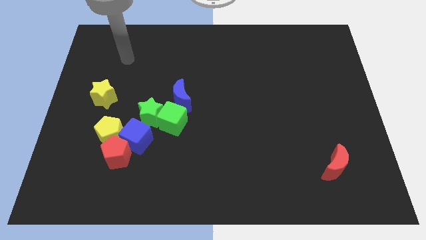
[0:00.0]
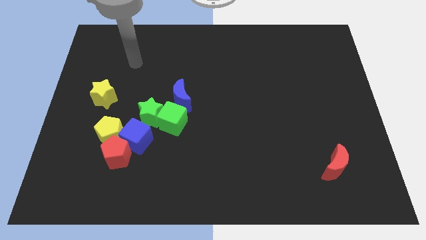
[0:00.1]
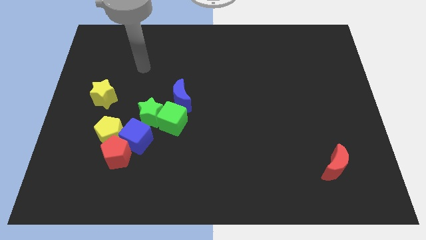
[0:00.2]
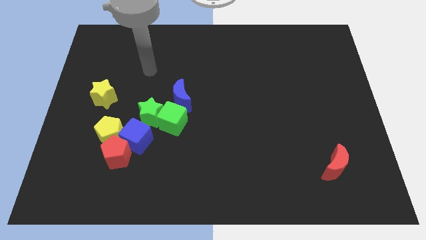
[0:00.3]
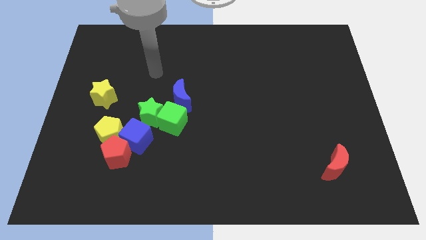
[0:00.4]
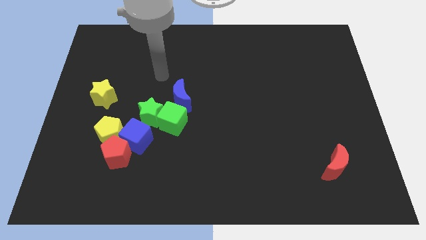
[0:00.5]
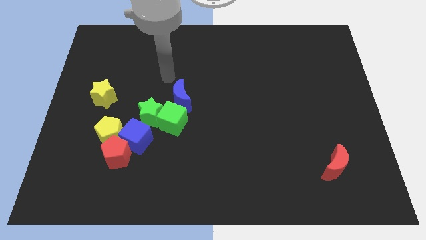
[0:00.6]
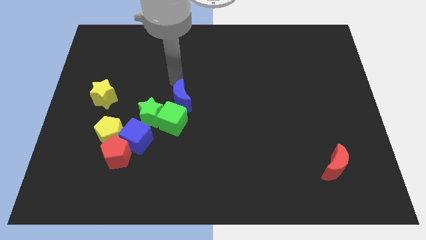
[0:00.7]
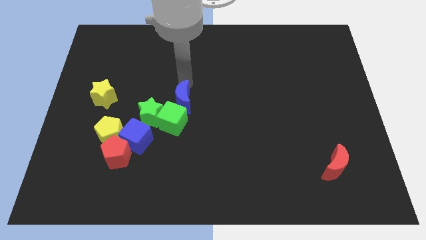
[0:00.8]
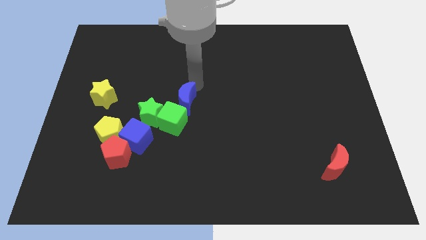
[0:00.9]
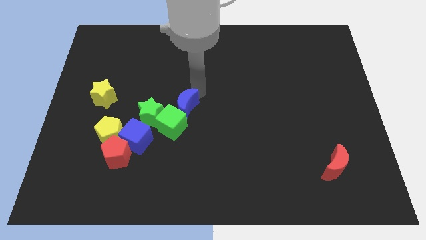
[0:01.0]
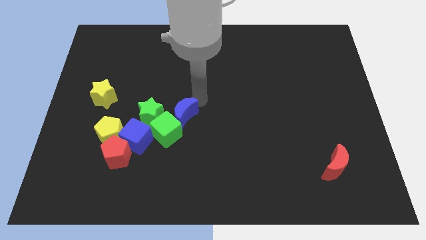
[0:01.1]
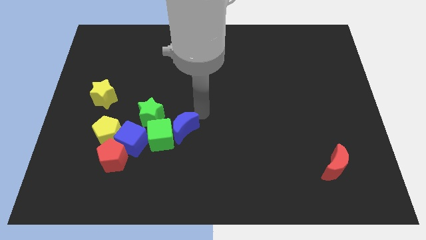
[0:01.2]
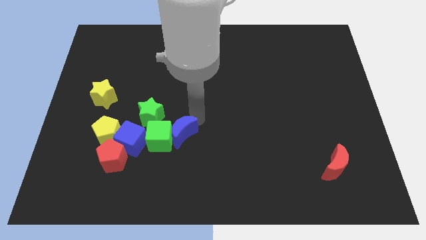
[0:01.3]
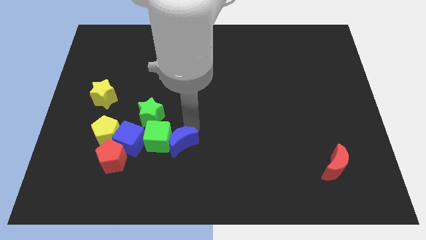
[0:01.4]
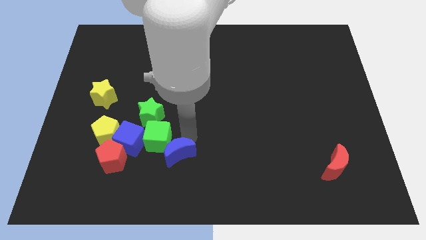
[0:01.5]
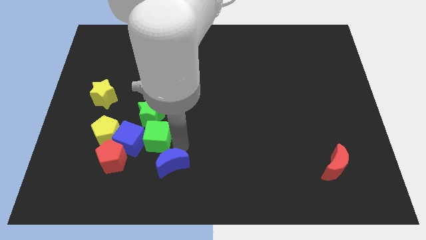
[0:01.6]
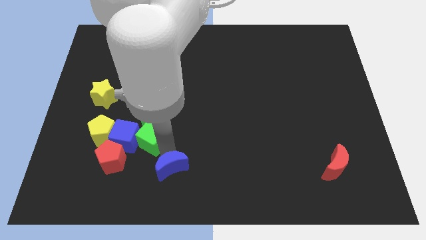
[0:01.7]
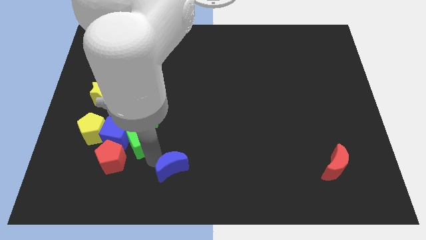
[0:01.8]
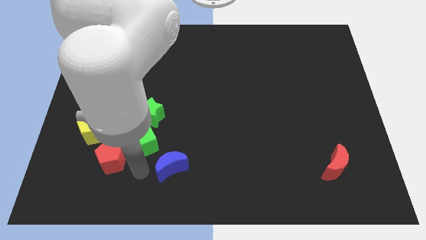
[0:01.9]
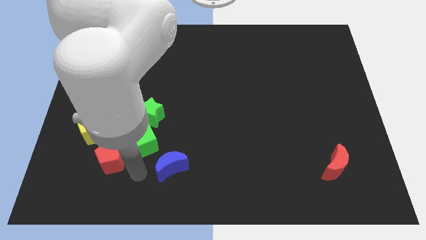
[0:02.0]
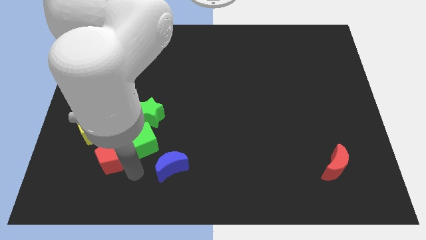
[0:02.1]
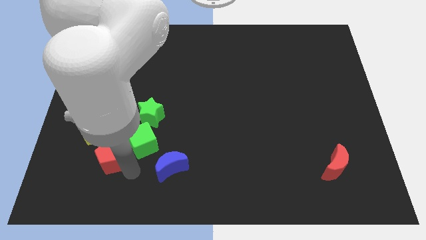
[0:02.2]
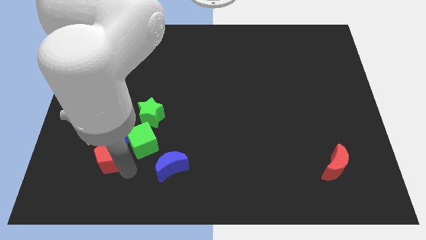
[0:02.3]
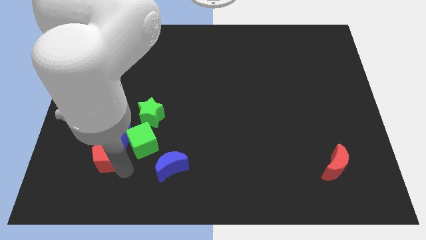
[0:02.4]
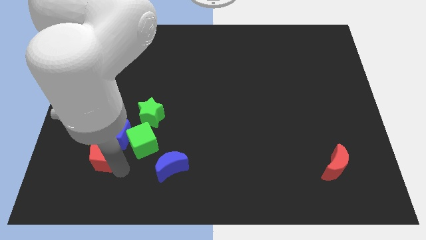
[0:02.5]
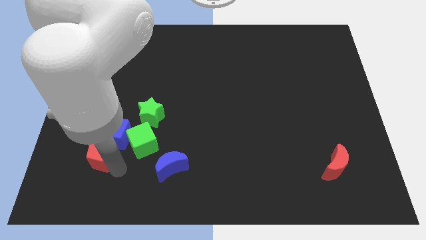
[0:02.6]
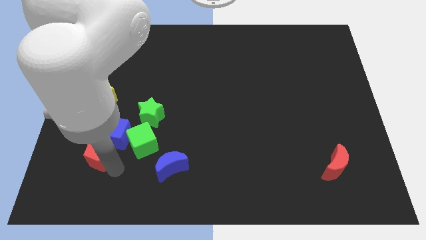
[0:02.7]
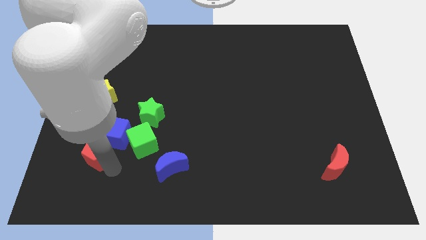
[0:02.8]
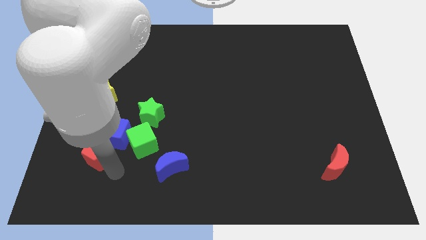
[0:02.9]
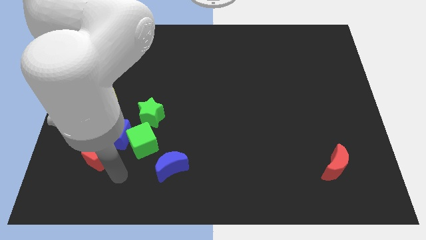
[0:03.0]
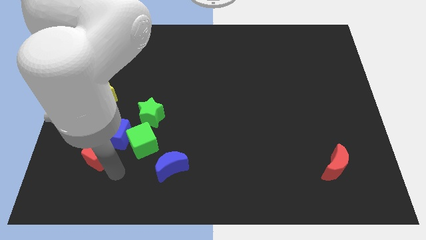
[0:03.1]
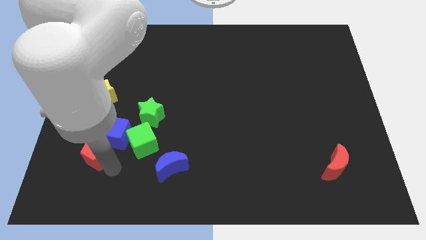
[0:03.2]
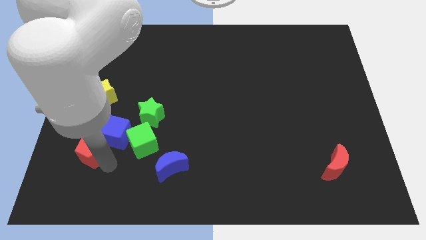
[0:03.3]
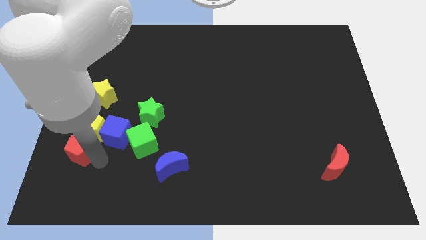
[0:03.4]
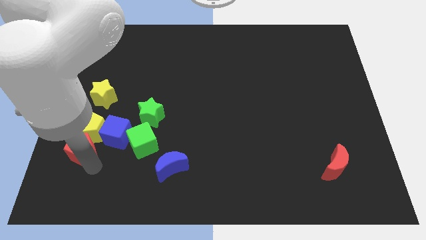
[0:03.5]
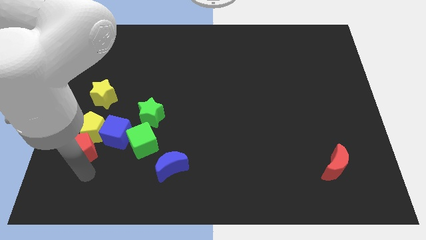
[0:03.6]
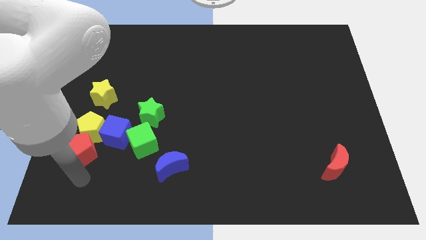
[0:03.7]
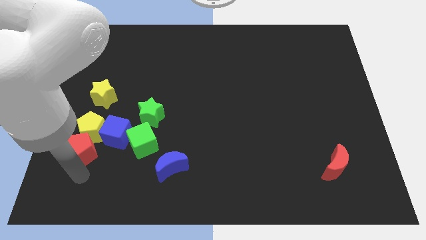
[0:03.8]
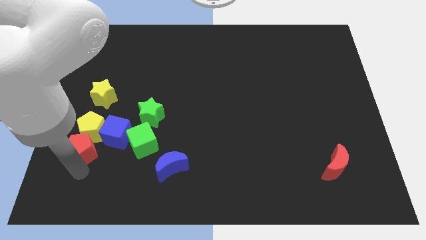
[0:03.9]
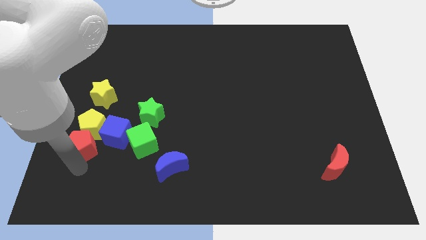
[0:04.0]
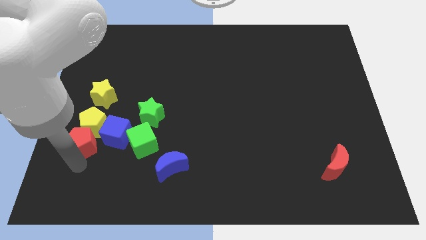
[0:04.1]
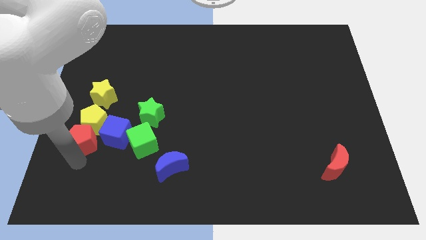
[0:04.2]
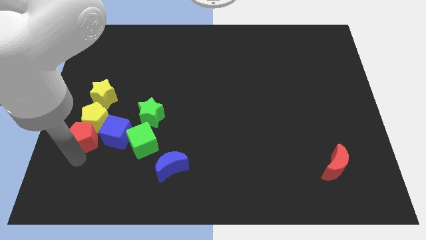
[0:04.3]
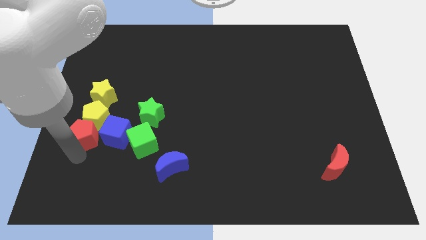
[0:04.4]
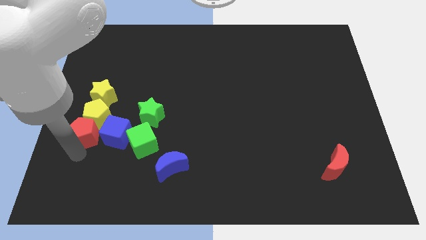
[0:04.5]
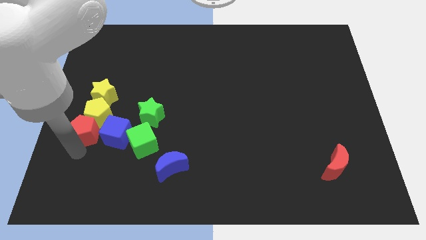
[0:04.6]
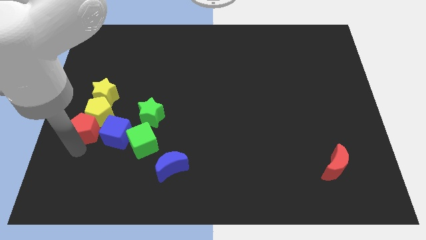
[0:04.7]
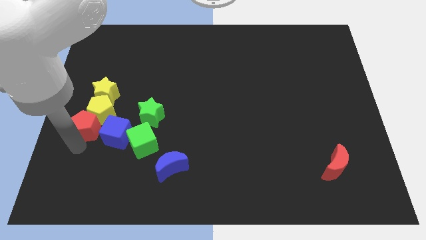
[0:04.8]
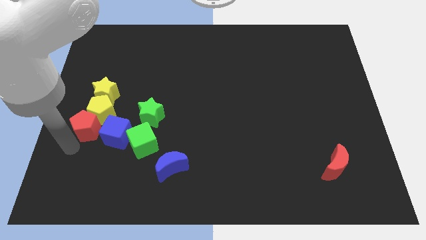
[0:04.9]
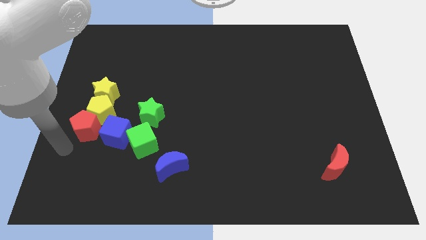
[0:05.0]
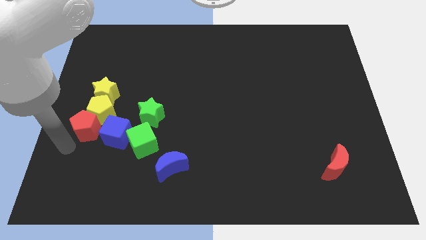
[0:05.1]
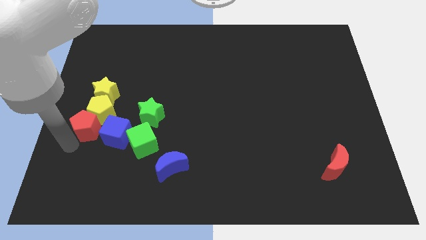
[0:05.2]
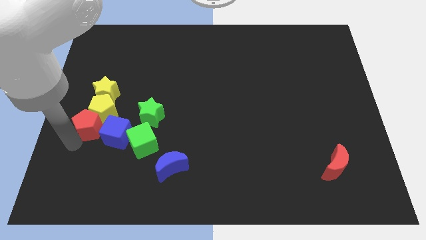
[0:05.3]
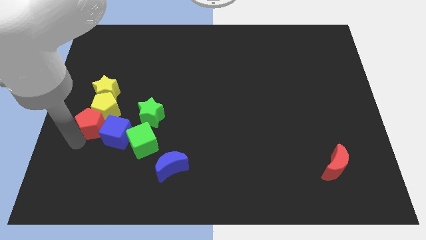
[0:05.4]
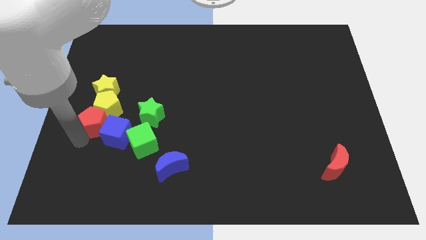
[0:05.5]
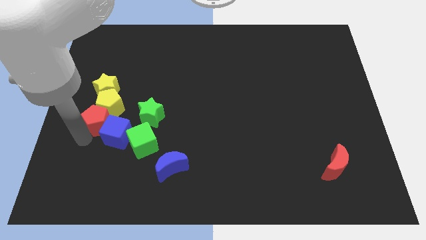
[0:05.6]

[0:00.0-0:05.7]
move the red pentagon a bit up

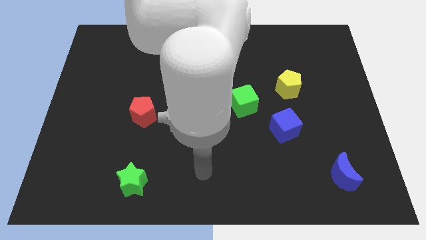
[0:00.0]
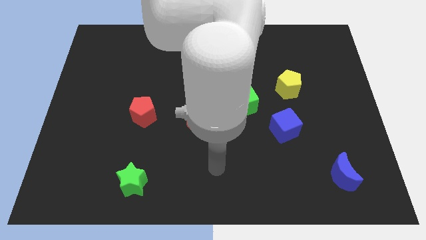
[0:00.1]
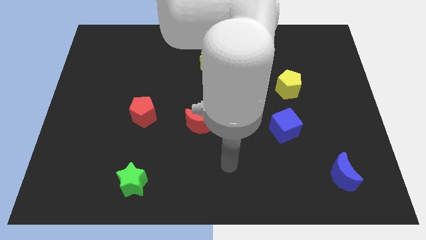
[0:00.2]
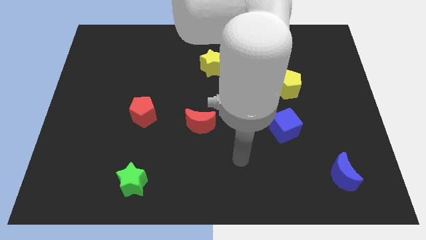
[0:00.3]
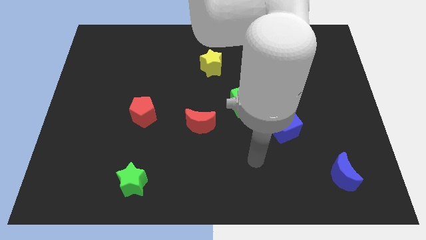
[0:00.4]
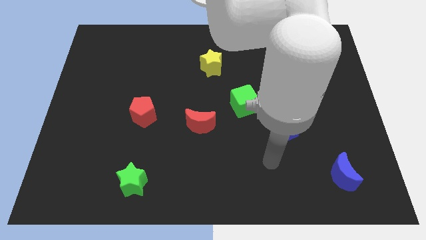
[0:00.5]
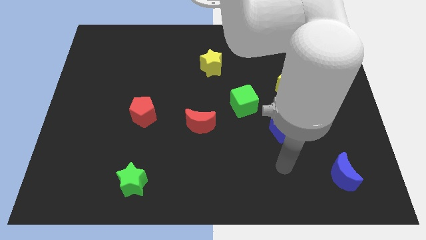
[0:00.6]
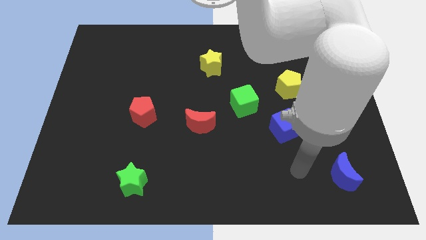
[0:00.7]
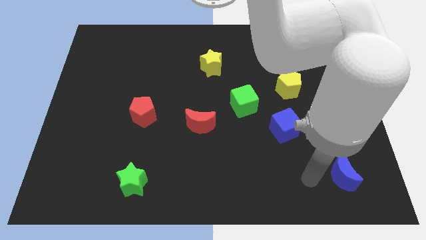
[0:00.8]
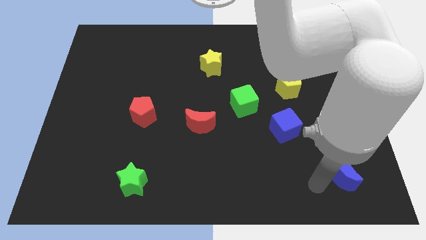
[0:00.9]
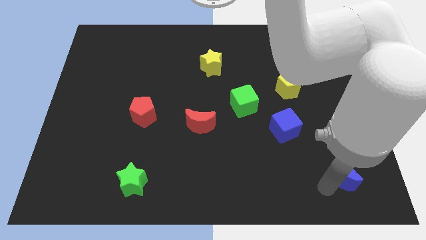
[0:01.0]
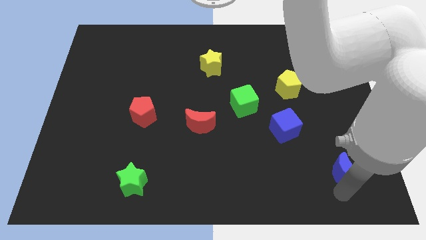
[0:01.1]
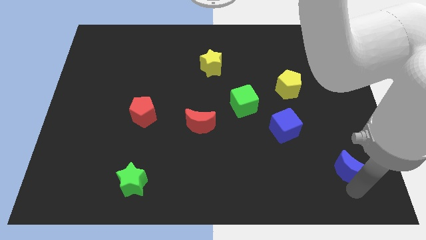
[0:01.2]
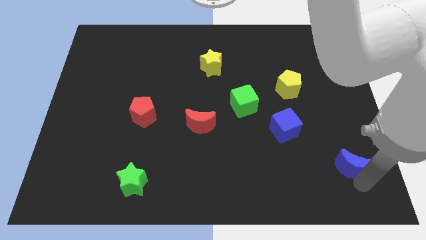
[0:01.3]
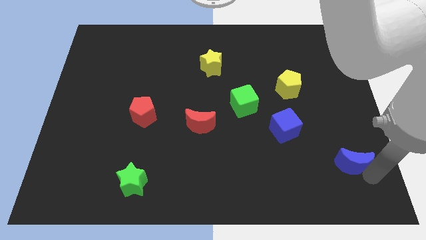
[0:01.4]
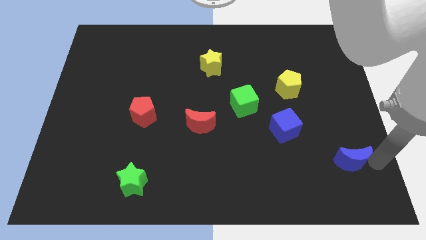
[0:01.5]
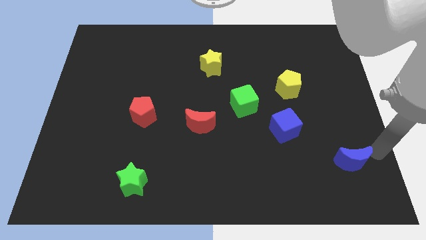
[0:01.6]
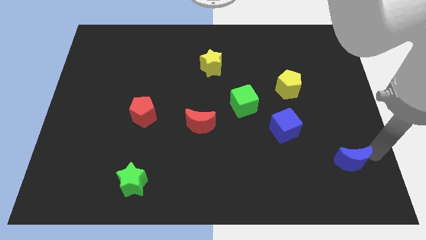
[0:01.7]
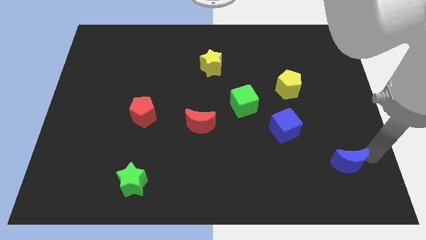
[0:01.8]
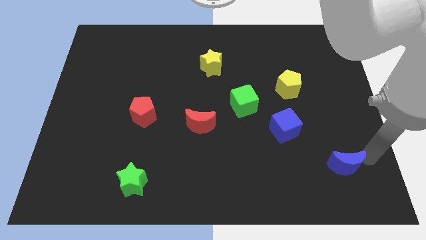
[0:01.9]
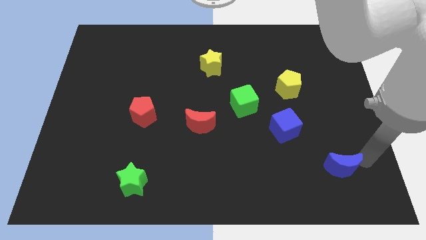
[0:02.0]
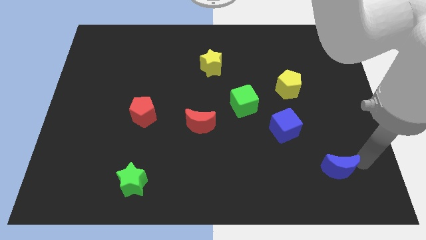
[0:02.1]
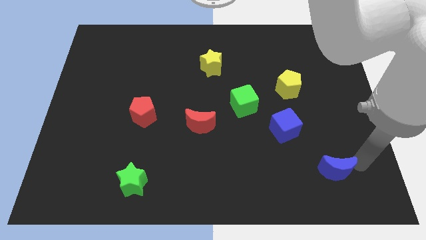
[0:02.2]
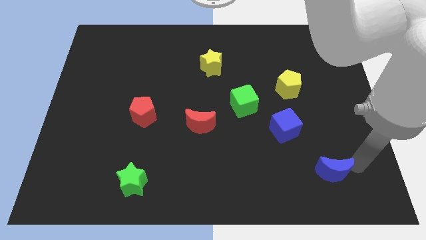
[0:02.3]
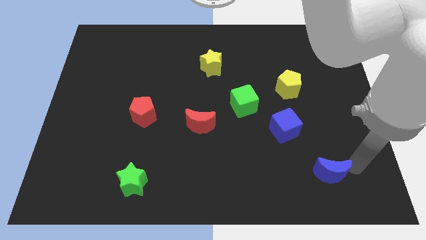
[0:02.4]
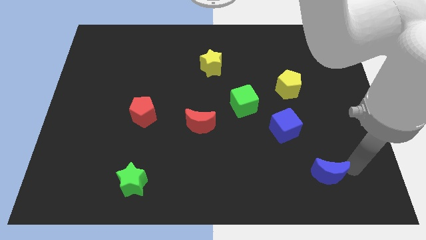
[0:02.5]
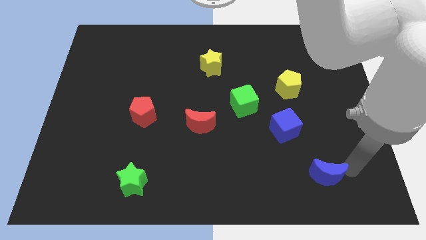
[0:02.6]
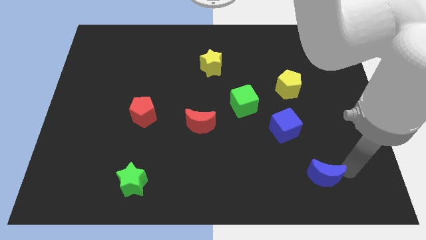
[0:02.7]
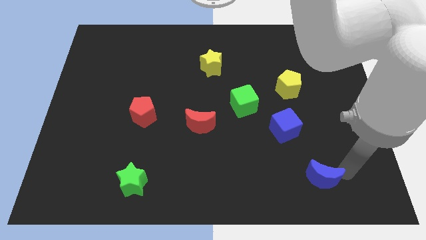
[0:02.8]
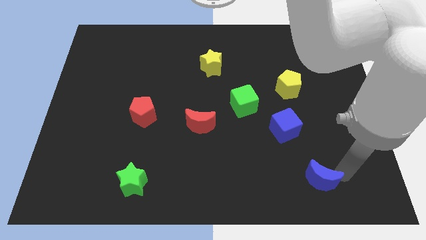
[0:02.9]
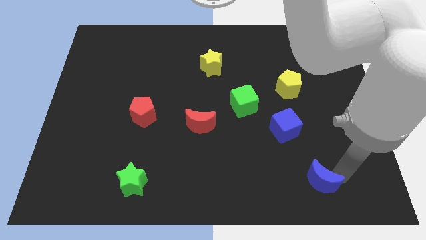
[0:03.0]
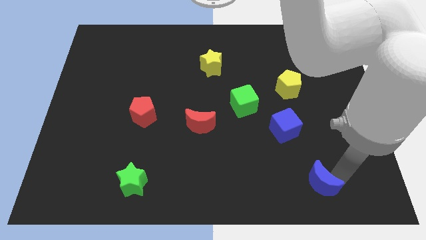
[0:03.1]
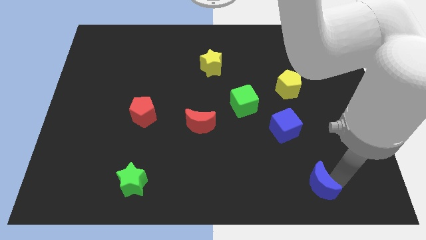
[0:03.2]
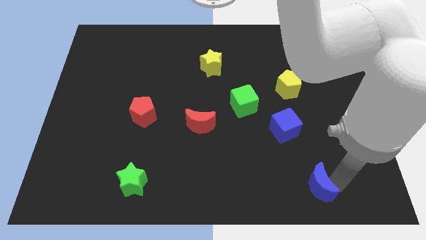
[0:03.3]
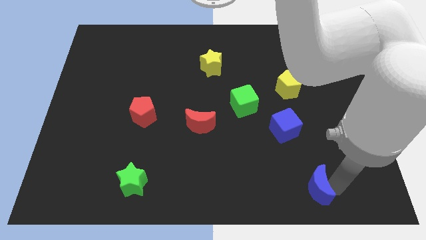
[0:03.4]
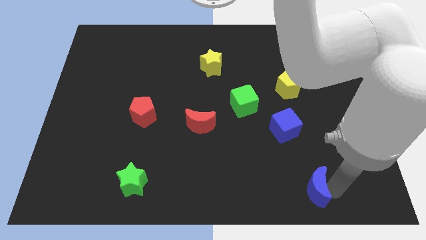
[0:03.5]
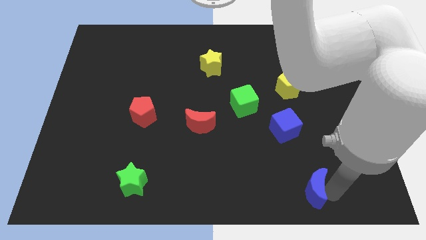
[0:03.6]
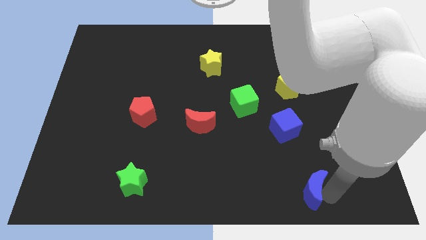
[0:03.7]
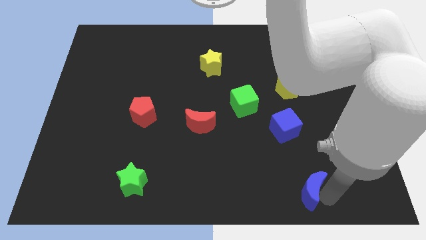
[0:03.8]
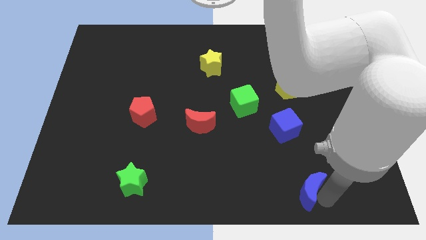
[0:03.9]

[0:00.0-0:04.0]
slide the blue moon left a little bit
